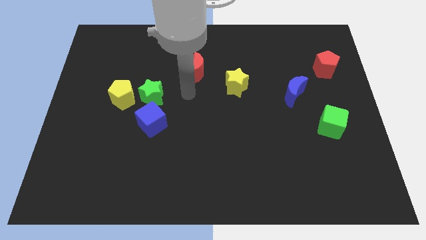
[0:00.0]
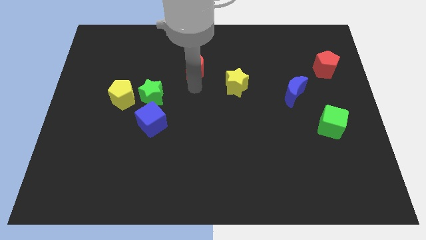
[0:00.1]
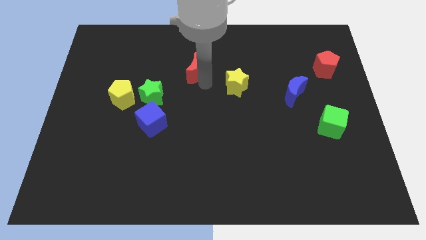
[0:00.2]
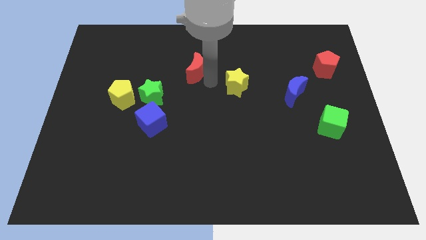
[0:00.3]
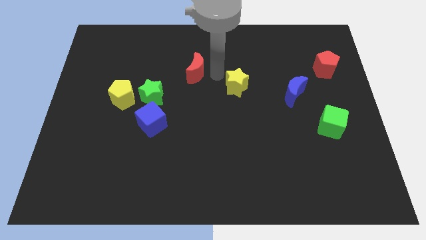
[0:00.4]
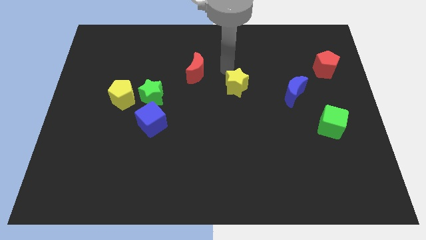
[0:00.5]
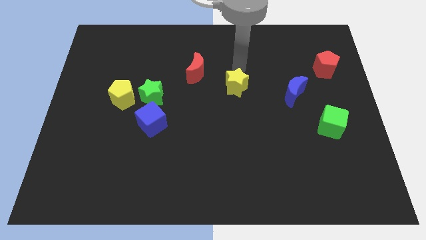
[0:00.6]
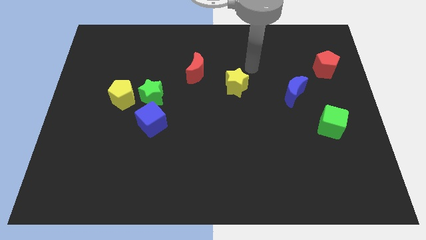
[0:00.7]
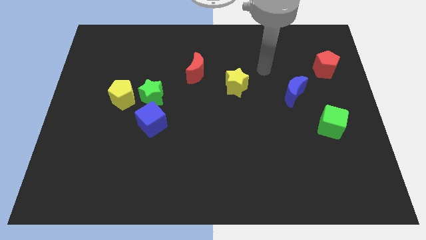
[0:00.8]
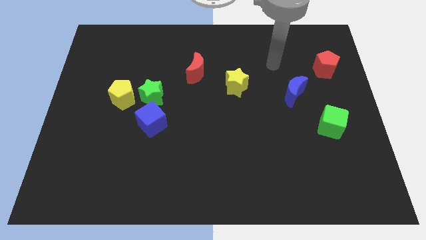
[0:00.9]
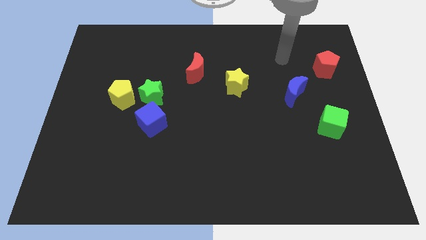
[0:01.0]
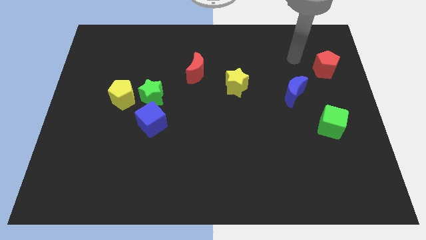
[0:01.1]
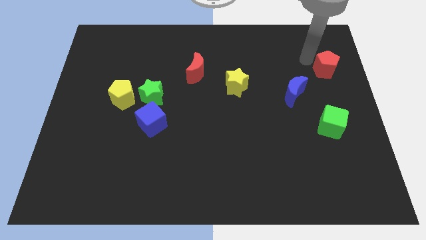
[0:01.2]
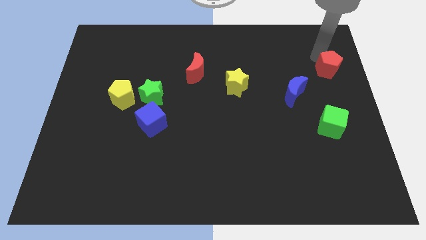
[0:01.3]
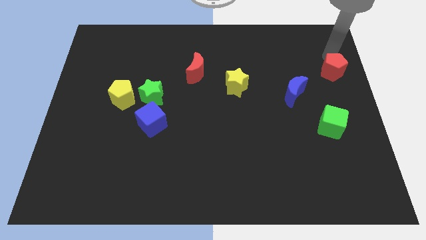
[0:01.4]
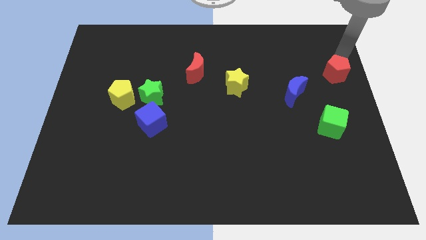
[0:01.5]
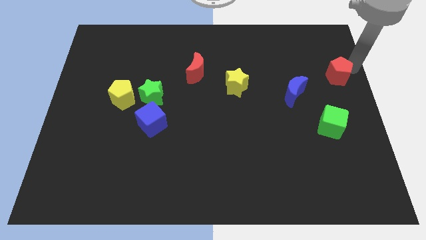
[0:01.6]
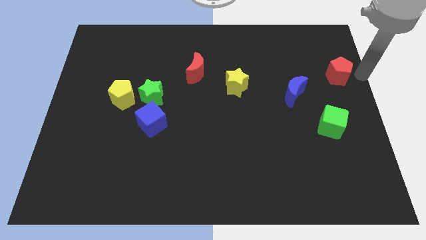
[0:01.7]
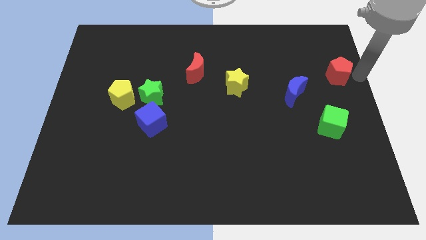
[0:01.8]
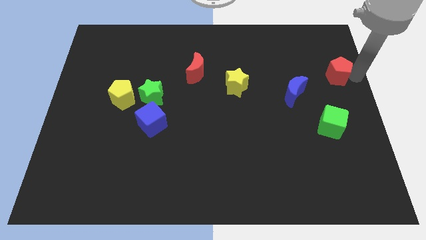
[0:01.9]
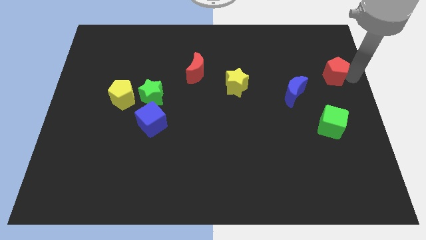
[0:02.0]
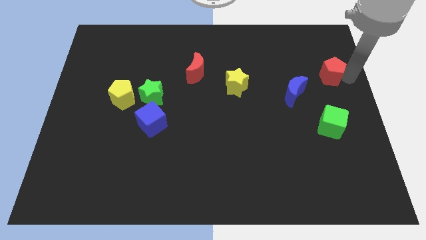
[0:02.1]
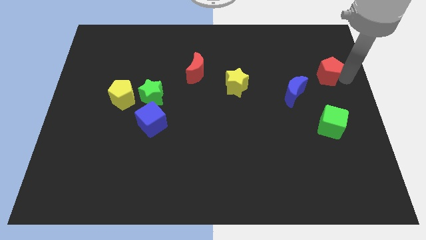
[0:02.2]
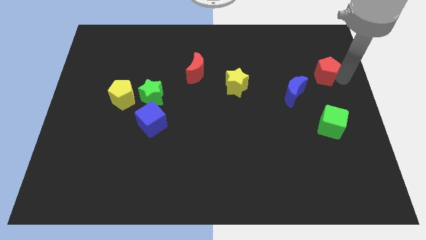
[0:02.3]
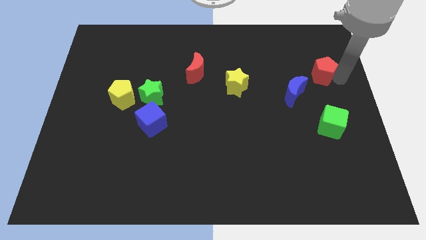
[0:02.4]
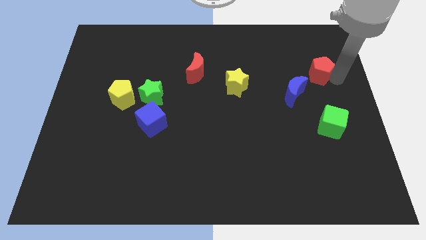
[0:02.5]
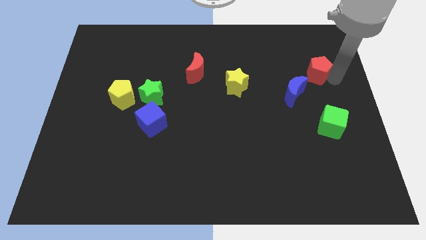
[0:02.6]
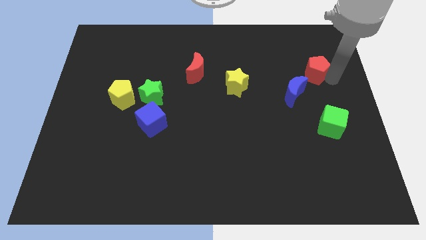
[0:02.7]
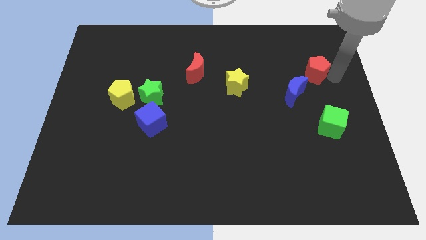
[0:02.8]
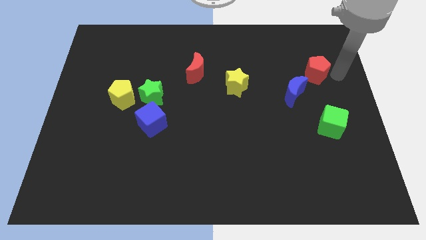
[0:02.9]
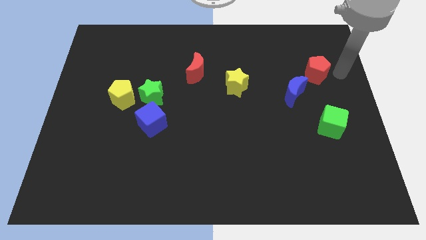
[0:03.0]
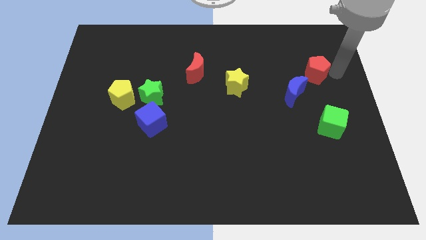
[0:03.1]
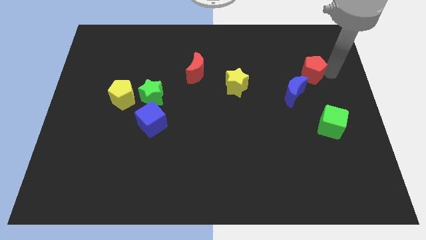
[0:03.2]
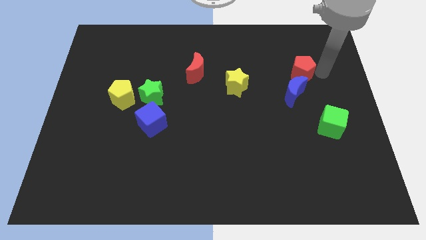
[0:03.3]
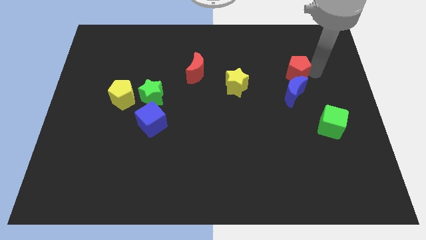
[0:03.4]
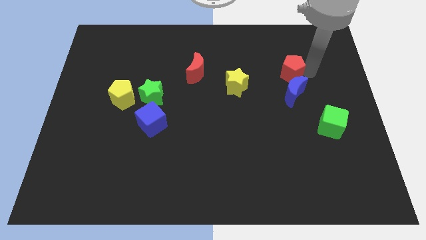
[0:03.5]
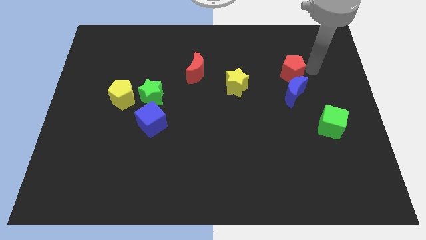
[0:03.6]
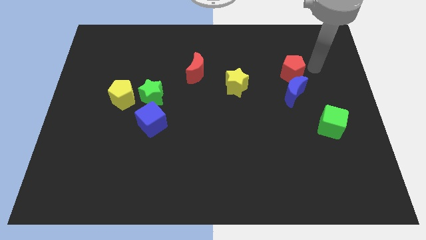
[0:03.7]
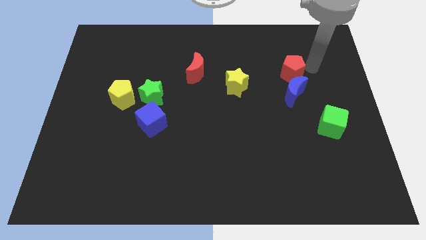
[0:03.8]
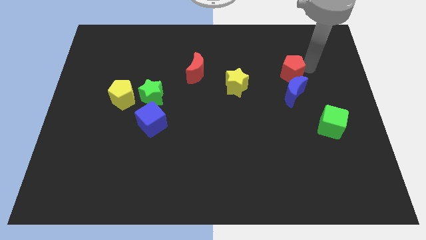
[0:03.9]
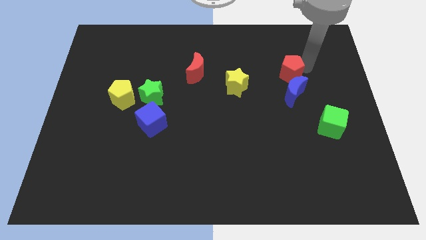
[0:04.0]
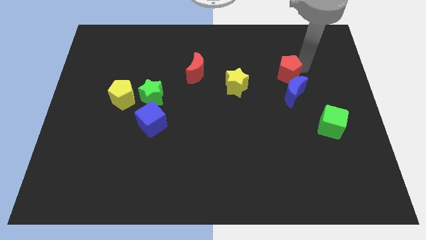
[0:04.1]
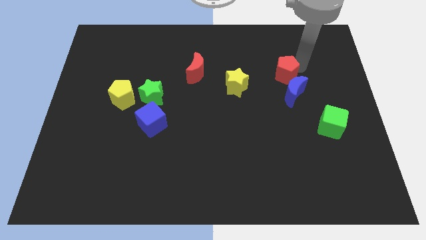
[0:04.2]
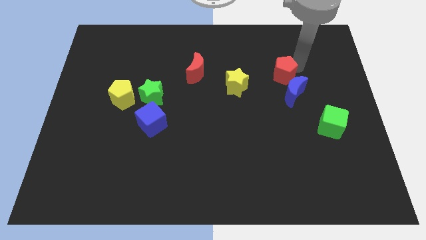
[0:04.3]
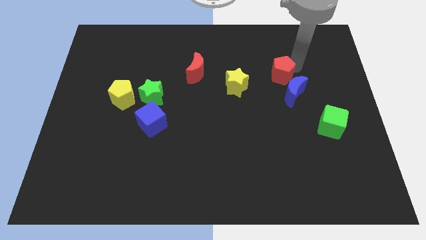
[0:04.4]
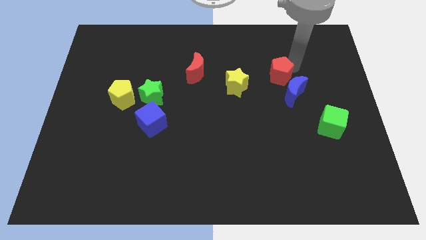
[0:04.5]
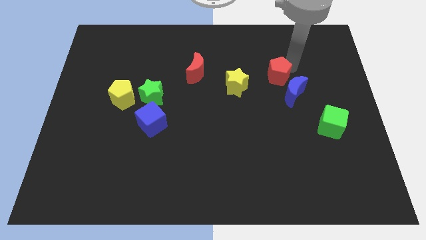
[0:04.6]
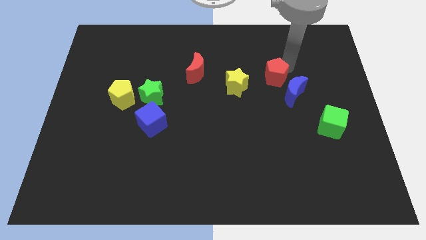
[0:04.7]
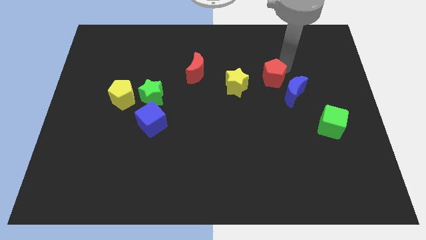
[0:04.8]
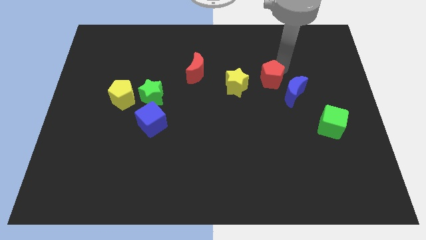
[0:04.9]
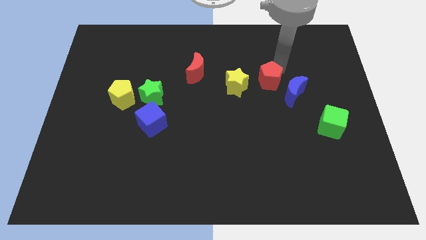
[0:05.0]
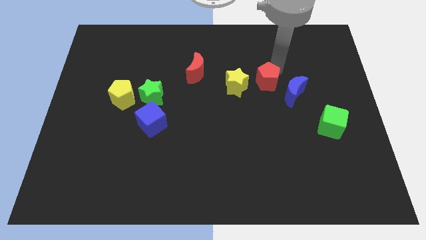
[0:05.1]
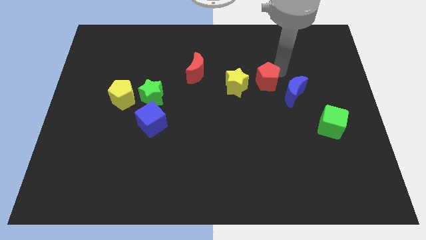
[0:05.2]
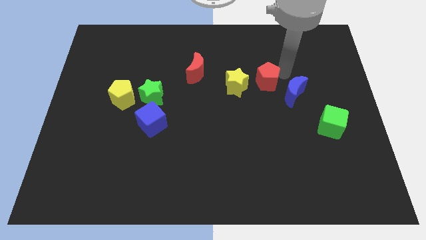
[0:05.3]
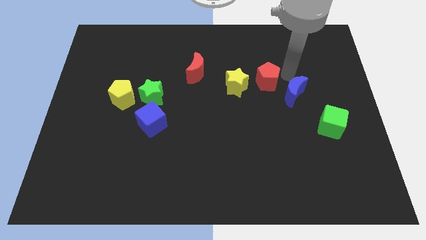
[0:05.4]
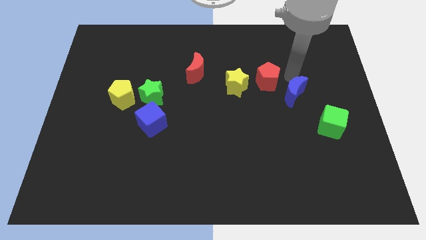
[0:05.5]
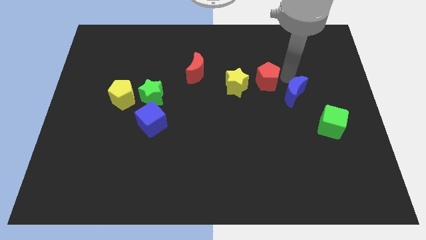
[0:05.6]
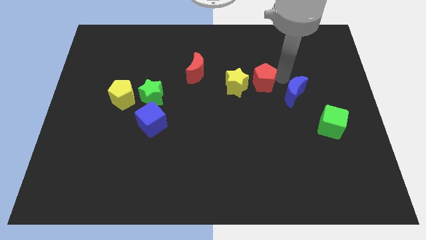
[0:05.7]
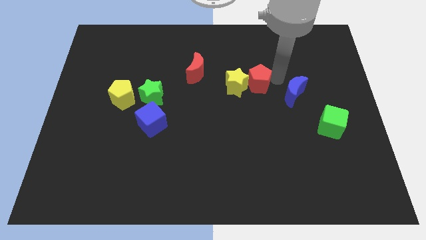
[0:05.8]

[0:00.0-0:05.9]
push the red pentagon to the yellow star

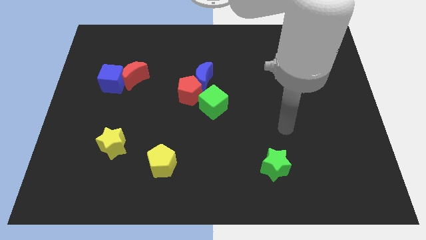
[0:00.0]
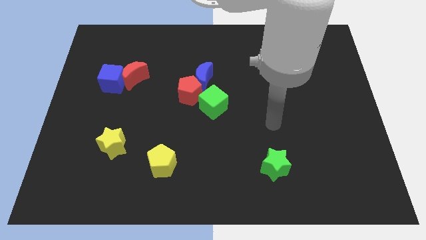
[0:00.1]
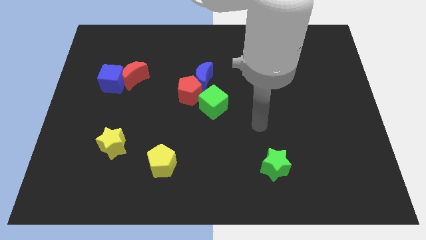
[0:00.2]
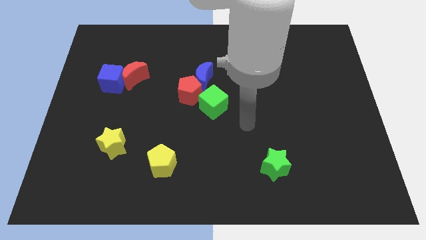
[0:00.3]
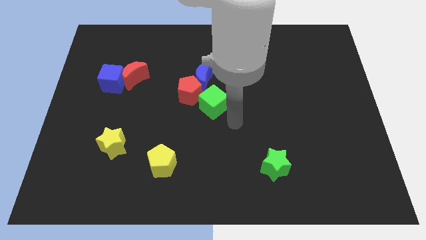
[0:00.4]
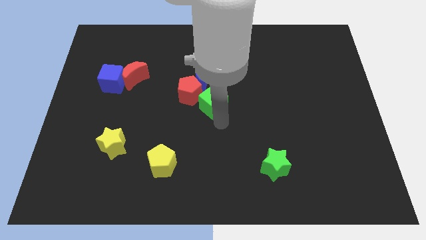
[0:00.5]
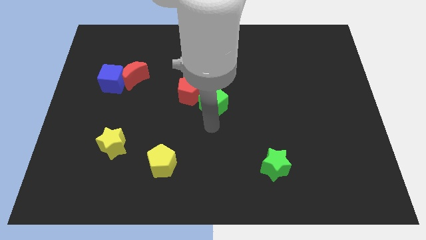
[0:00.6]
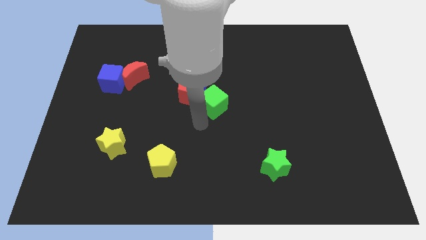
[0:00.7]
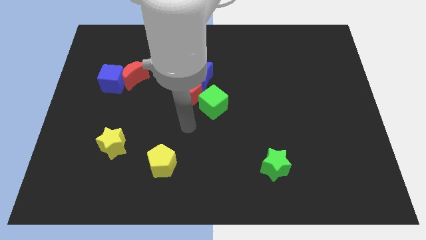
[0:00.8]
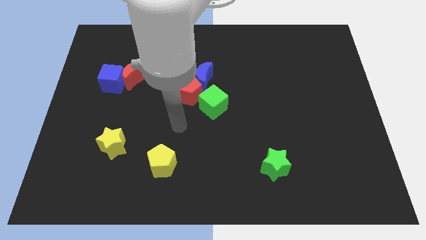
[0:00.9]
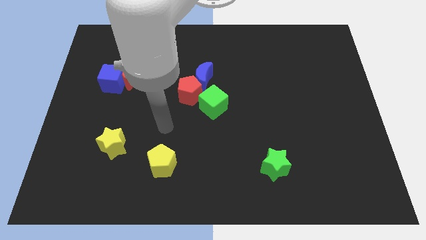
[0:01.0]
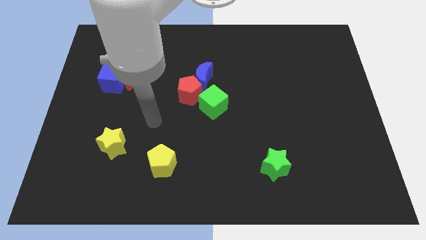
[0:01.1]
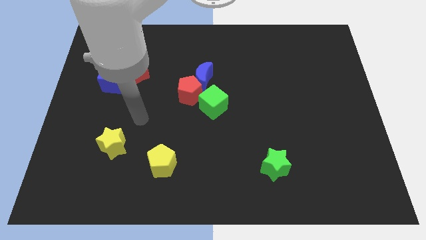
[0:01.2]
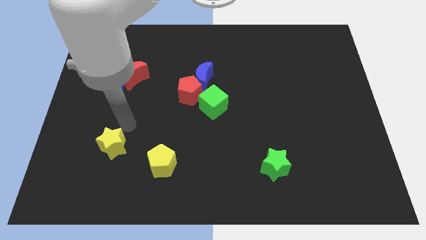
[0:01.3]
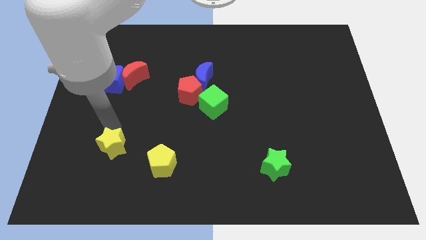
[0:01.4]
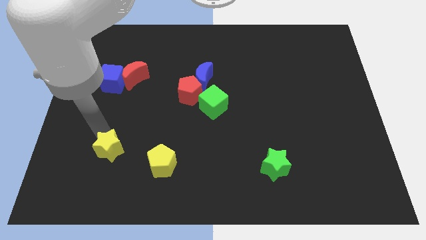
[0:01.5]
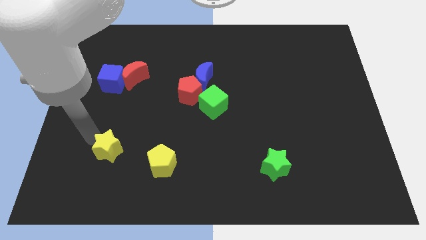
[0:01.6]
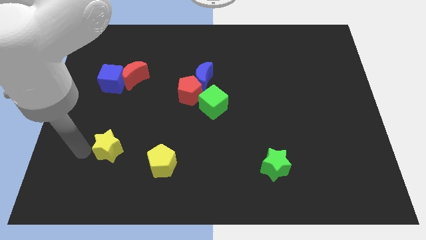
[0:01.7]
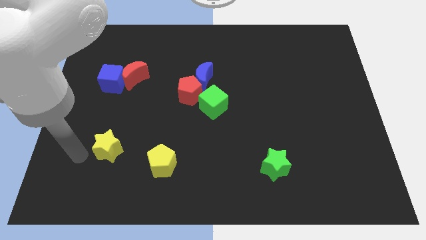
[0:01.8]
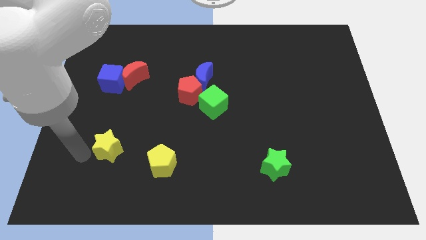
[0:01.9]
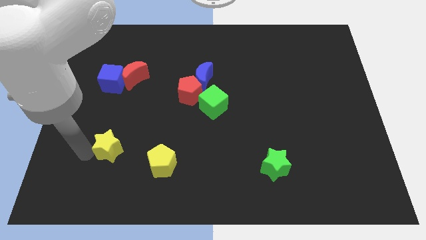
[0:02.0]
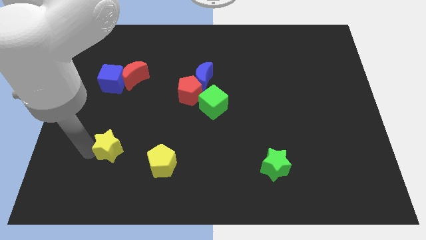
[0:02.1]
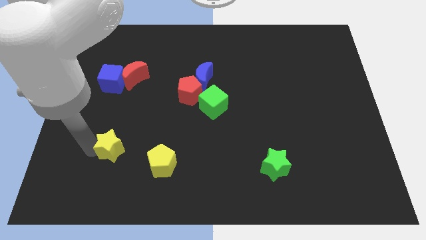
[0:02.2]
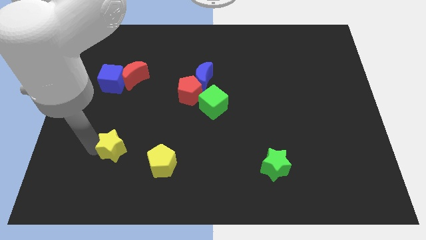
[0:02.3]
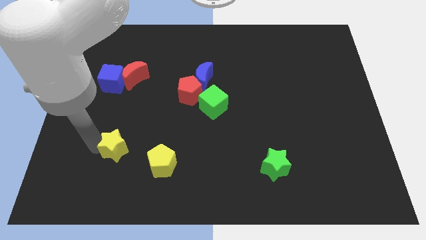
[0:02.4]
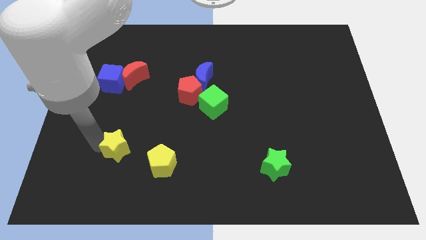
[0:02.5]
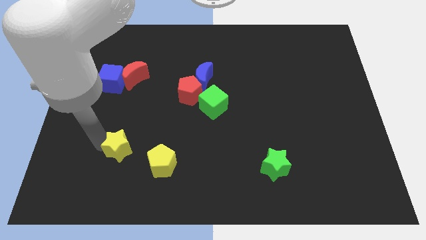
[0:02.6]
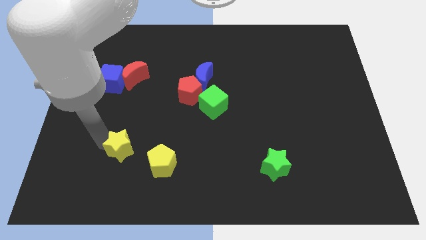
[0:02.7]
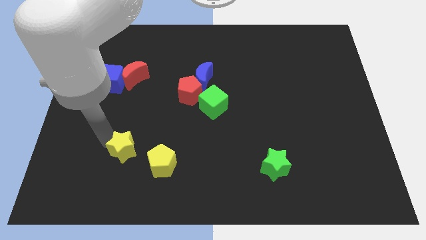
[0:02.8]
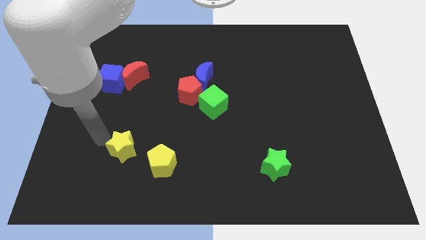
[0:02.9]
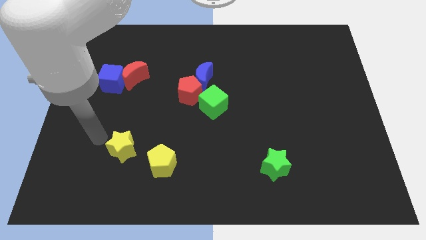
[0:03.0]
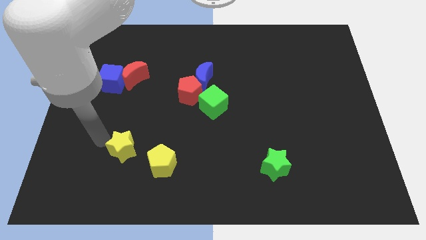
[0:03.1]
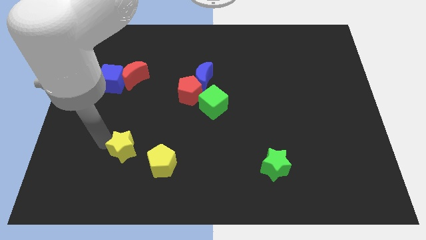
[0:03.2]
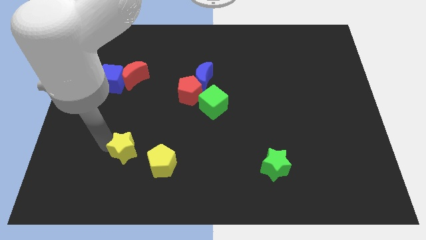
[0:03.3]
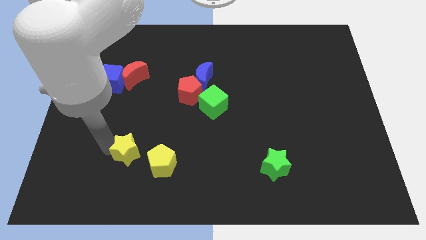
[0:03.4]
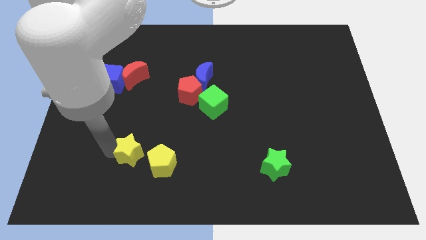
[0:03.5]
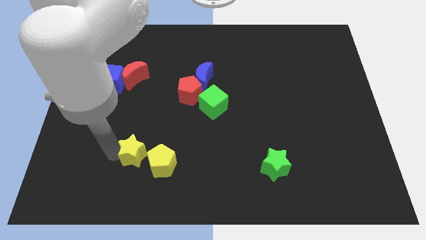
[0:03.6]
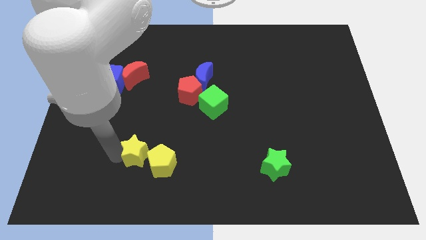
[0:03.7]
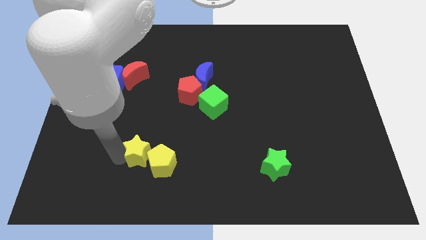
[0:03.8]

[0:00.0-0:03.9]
slide the yellow star to the yellow pentagon
